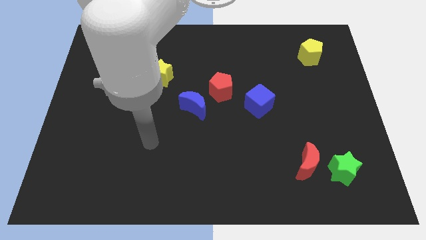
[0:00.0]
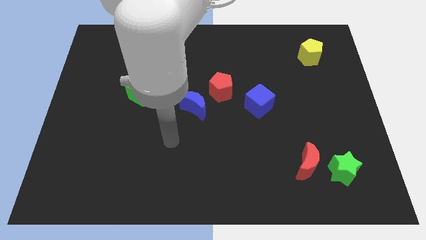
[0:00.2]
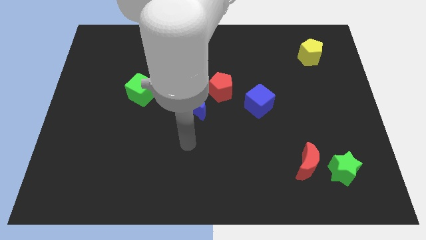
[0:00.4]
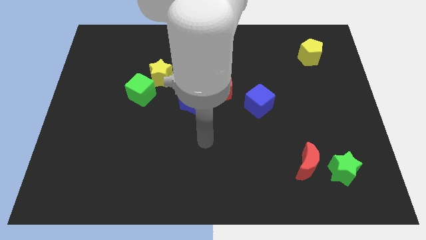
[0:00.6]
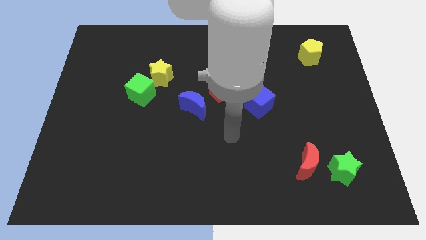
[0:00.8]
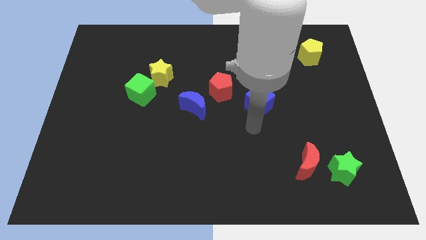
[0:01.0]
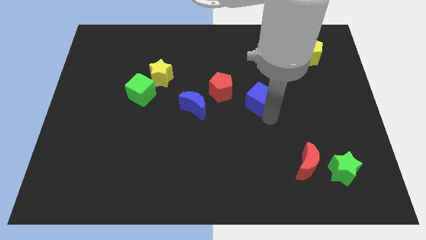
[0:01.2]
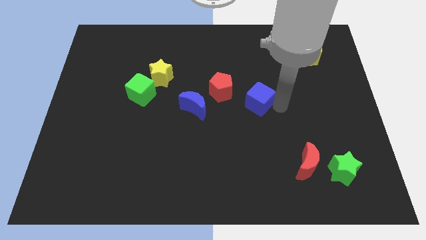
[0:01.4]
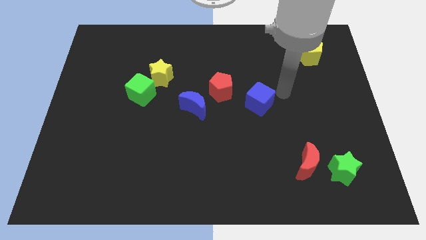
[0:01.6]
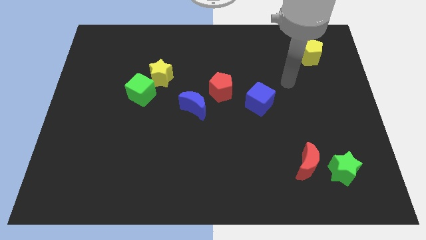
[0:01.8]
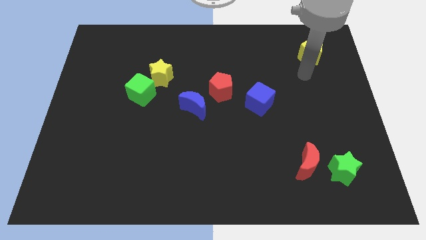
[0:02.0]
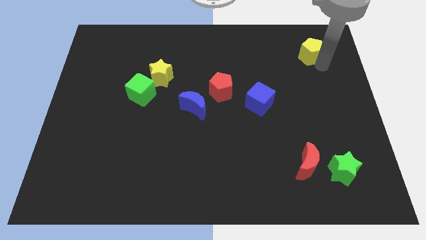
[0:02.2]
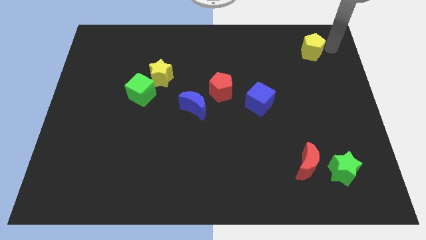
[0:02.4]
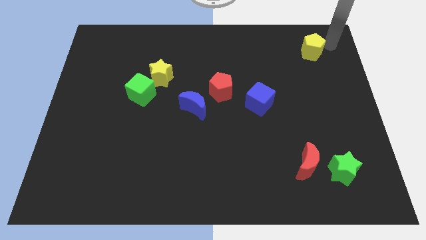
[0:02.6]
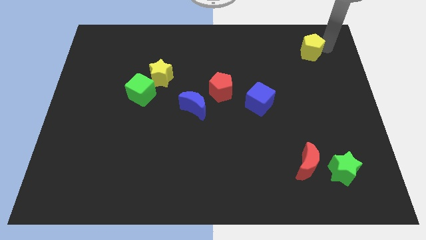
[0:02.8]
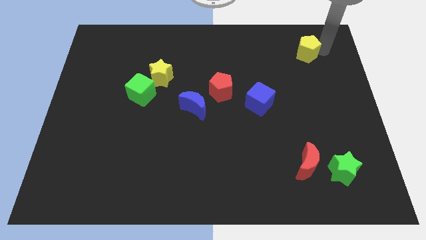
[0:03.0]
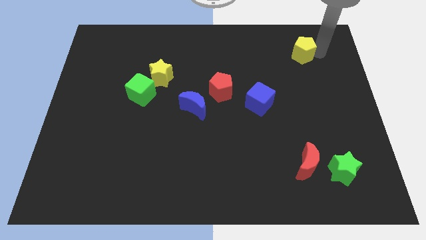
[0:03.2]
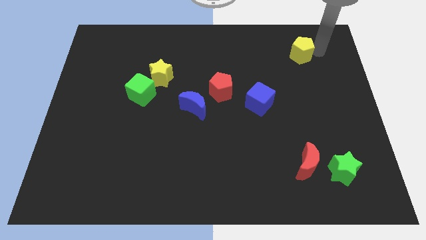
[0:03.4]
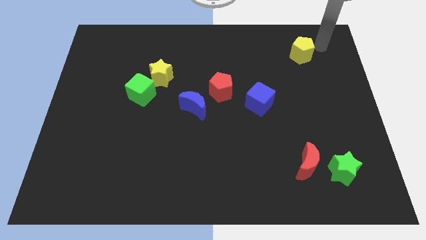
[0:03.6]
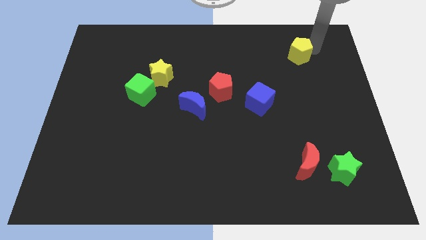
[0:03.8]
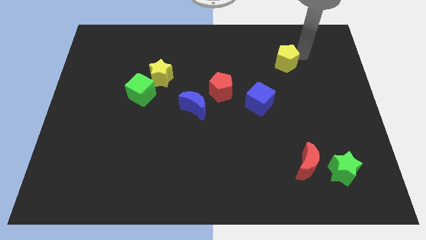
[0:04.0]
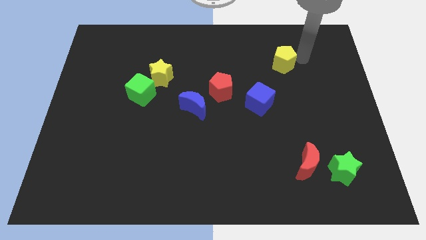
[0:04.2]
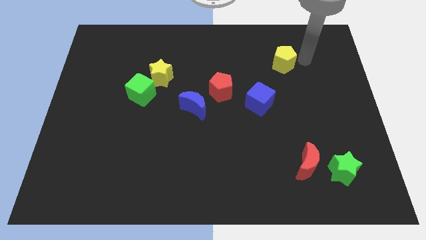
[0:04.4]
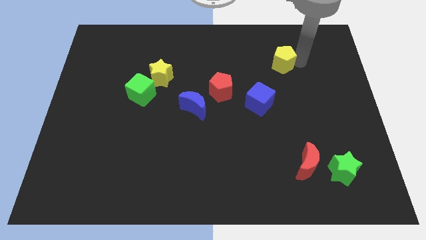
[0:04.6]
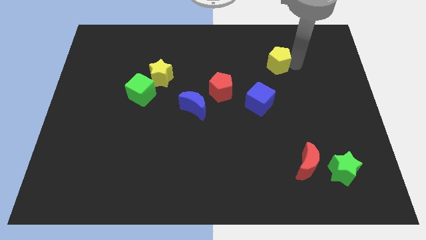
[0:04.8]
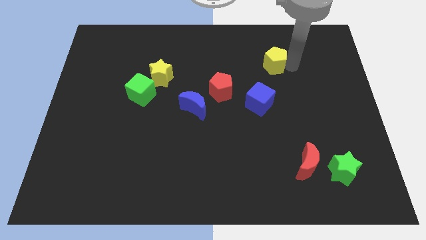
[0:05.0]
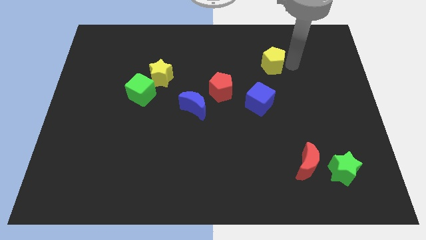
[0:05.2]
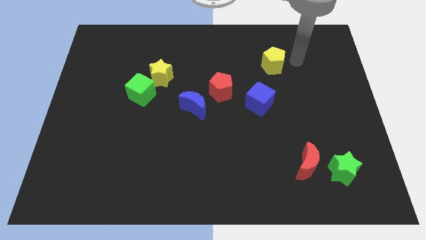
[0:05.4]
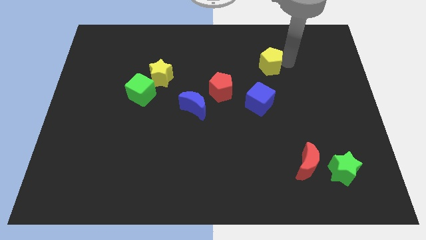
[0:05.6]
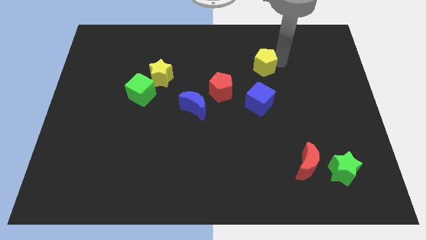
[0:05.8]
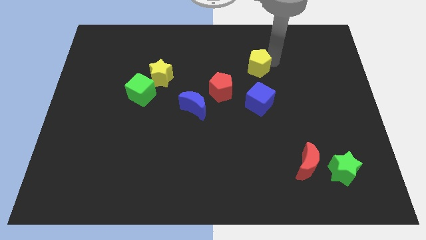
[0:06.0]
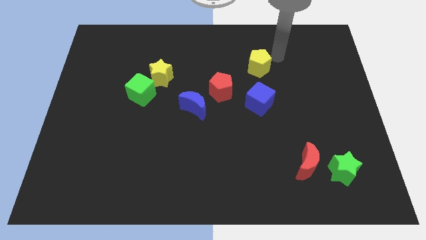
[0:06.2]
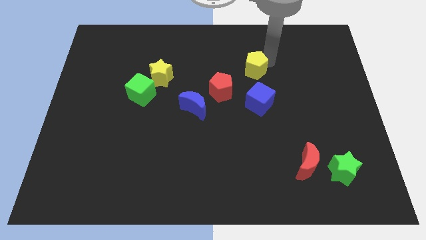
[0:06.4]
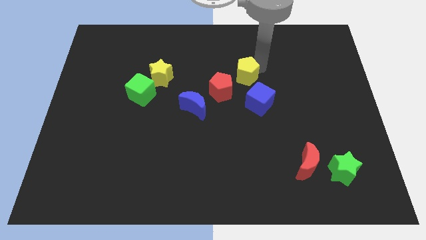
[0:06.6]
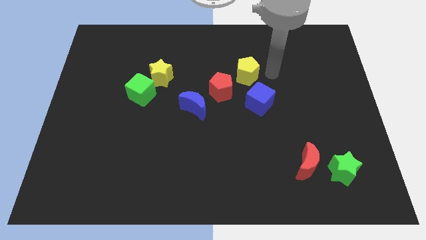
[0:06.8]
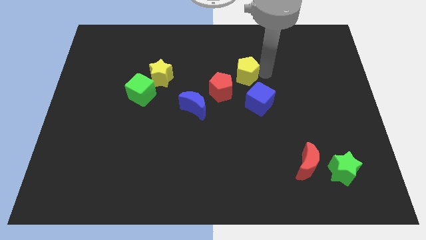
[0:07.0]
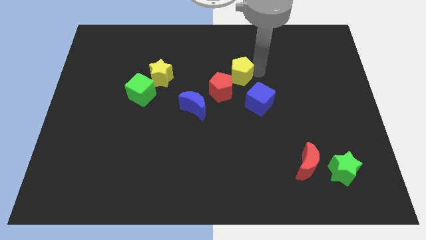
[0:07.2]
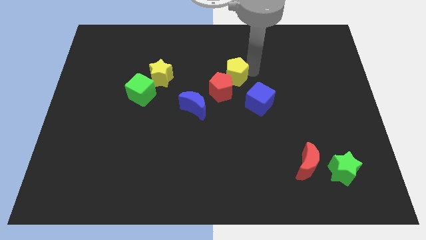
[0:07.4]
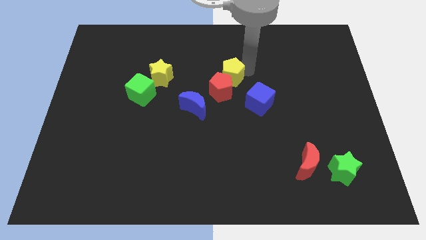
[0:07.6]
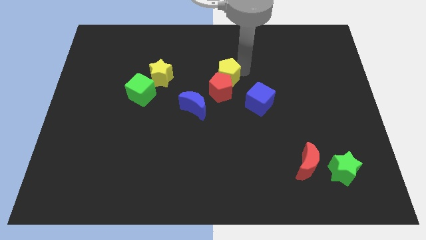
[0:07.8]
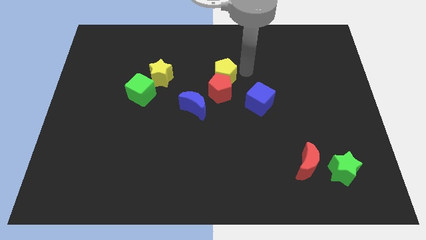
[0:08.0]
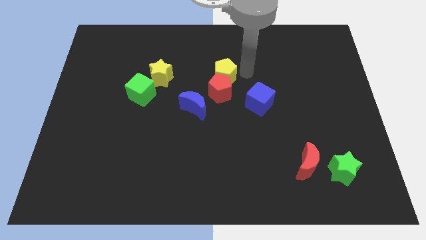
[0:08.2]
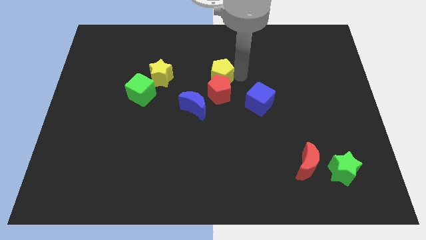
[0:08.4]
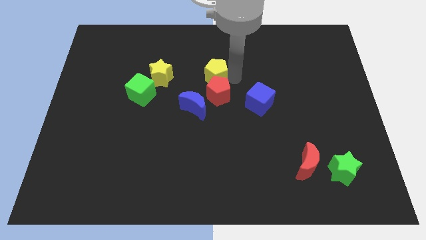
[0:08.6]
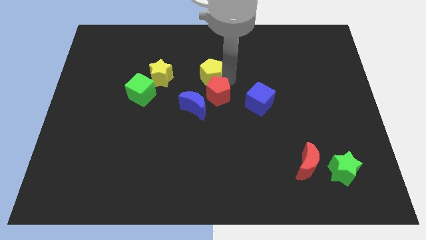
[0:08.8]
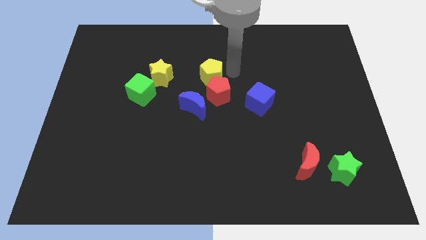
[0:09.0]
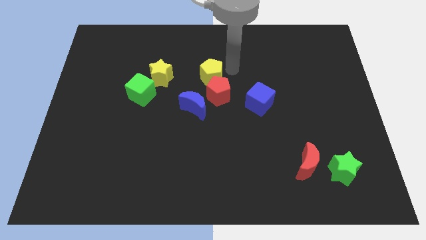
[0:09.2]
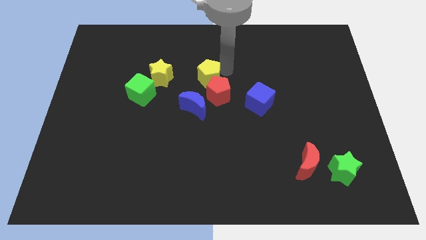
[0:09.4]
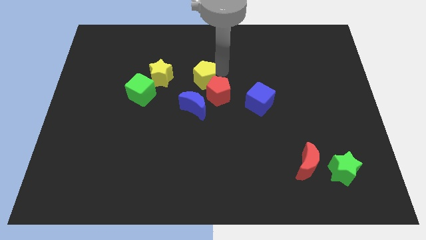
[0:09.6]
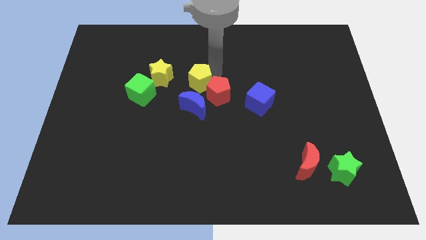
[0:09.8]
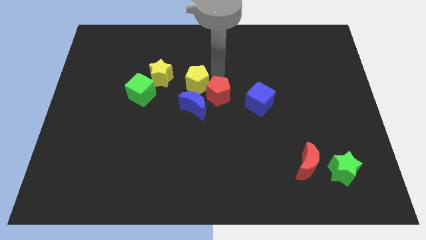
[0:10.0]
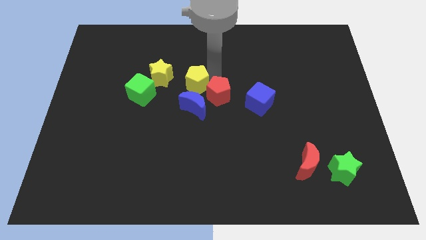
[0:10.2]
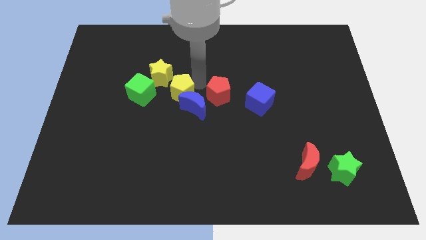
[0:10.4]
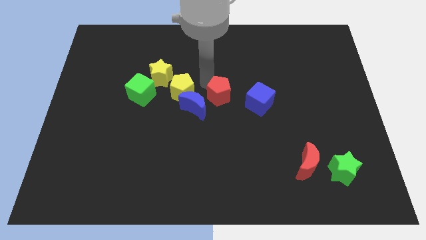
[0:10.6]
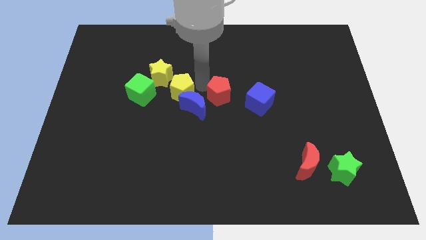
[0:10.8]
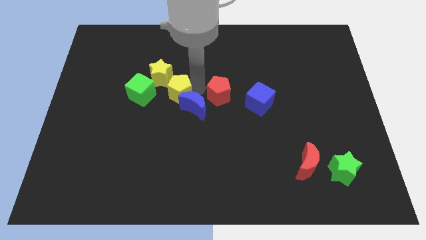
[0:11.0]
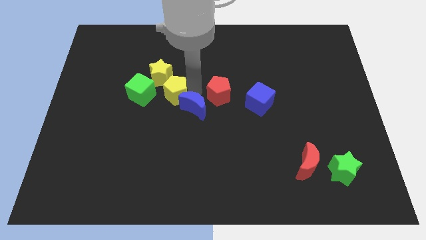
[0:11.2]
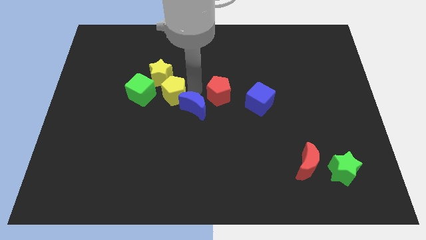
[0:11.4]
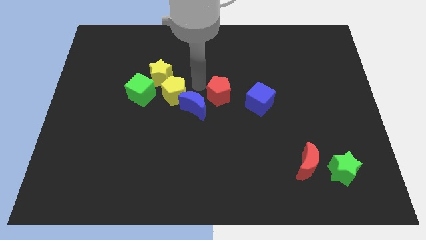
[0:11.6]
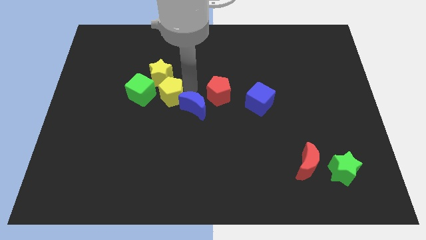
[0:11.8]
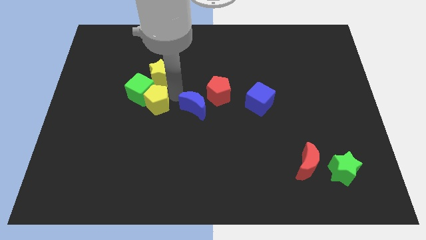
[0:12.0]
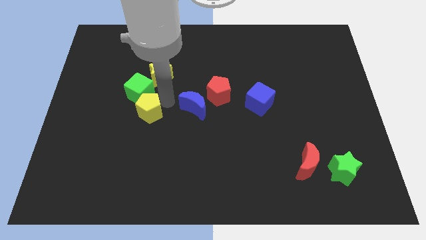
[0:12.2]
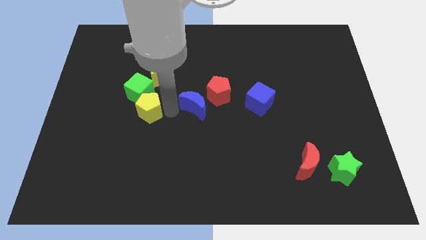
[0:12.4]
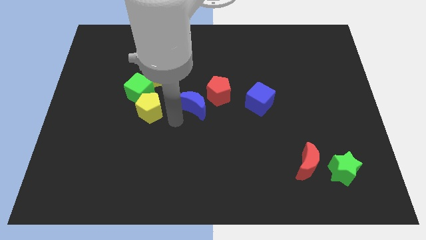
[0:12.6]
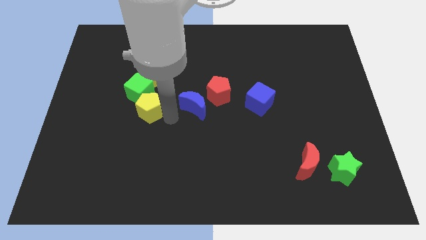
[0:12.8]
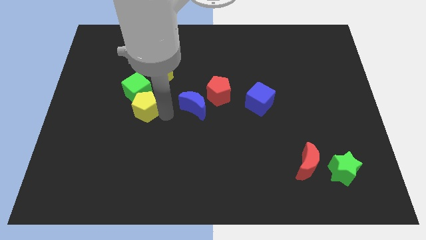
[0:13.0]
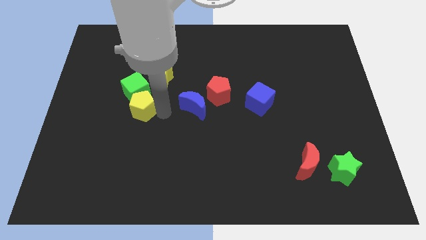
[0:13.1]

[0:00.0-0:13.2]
slide the yellow pentagon diagonally down and to the left of the yellow star
